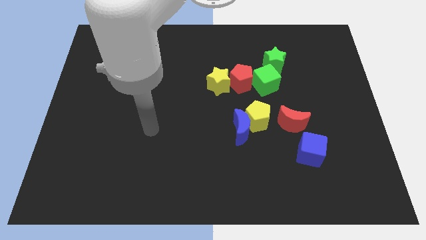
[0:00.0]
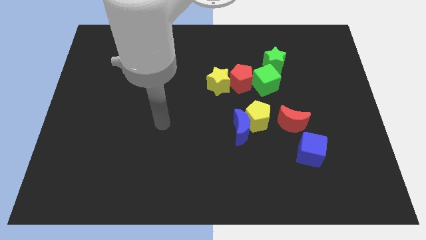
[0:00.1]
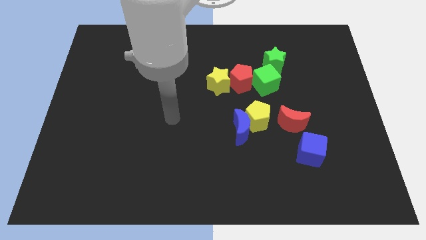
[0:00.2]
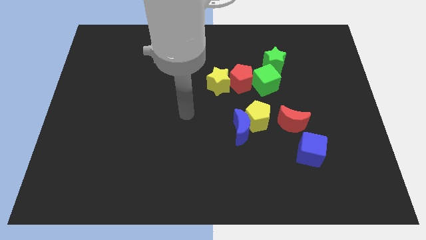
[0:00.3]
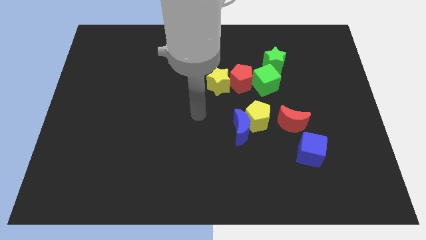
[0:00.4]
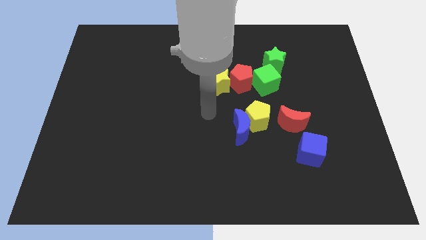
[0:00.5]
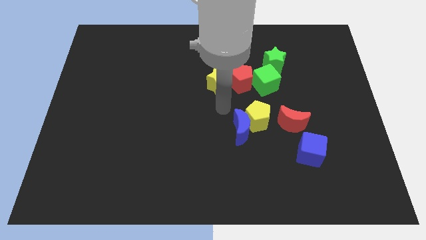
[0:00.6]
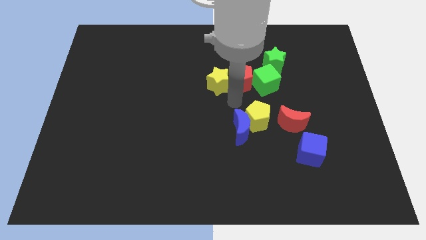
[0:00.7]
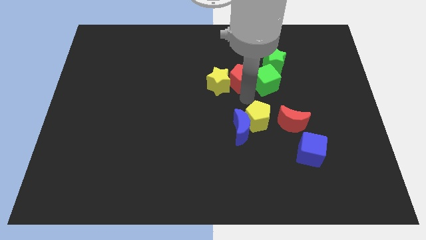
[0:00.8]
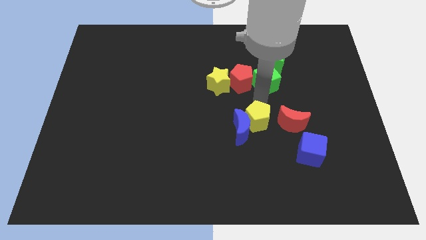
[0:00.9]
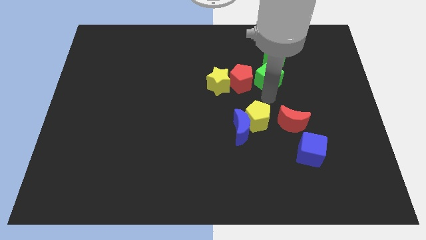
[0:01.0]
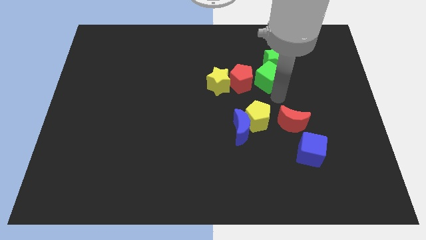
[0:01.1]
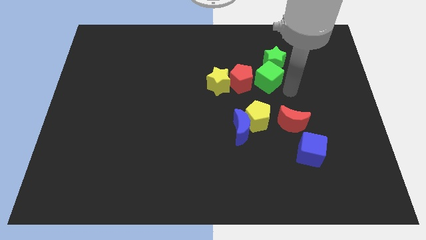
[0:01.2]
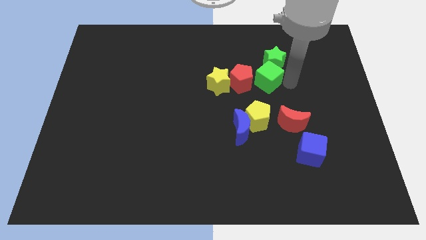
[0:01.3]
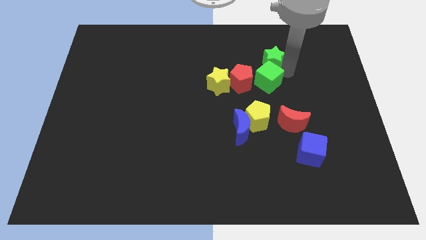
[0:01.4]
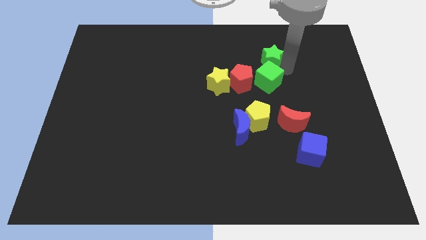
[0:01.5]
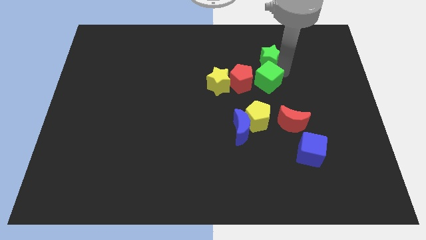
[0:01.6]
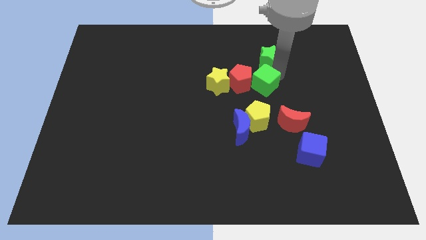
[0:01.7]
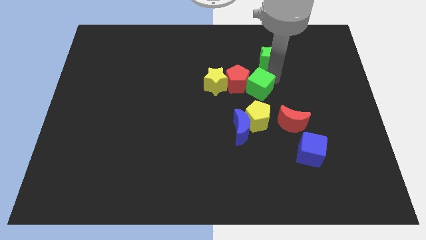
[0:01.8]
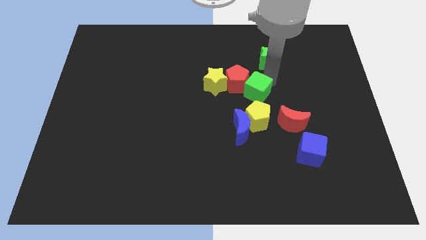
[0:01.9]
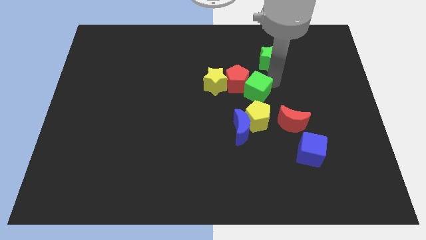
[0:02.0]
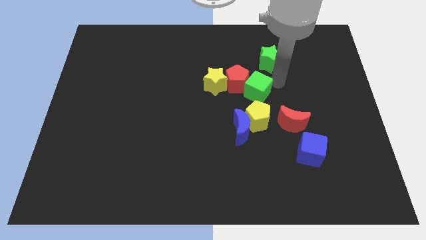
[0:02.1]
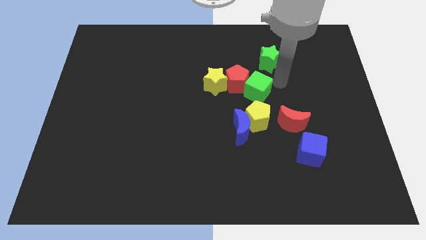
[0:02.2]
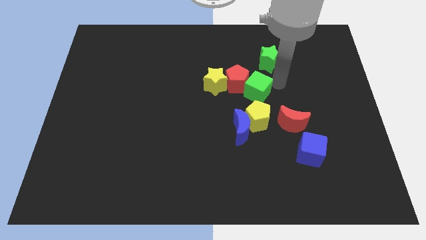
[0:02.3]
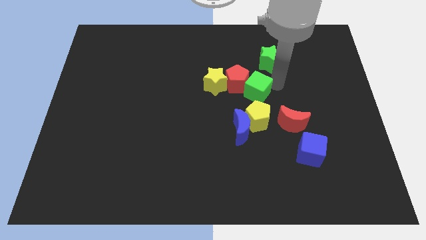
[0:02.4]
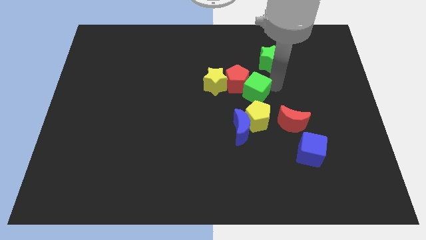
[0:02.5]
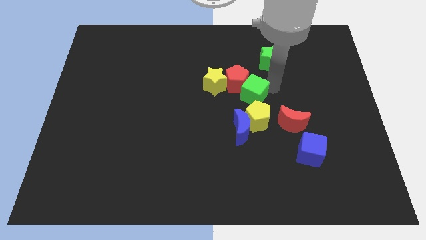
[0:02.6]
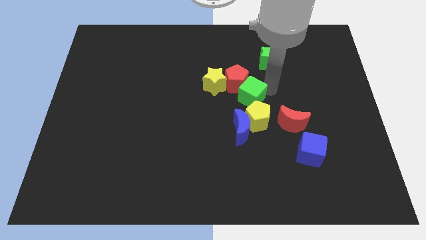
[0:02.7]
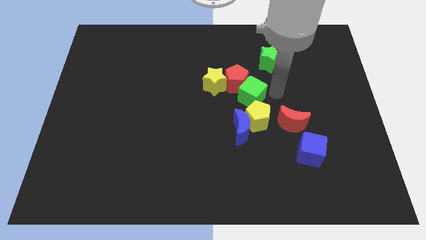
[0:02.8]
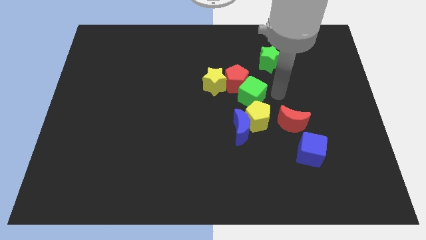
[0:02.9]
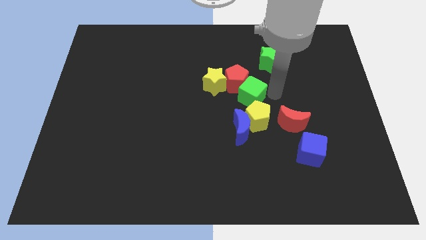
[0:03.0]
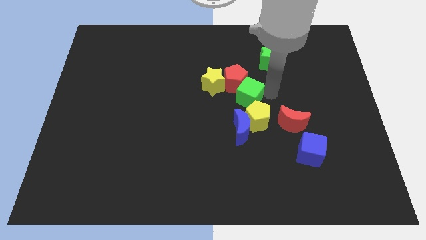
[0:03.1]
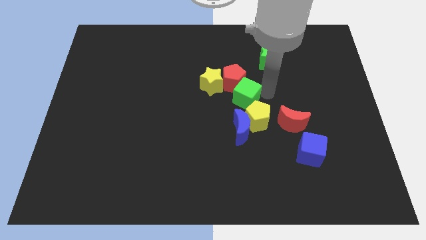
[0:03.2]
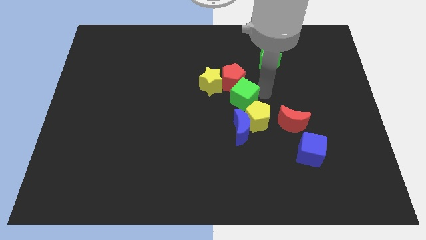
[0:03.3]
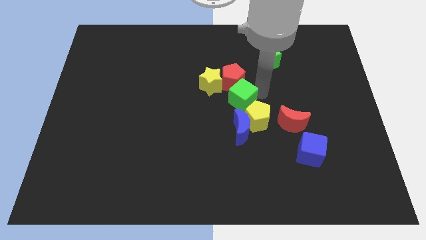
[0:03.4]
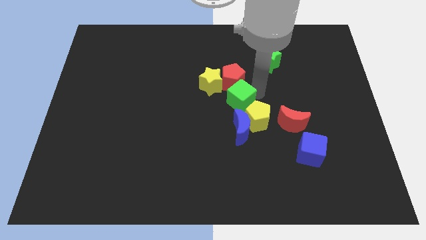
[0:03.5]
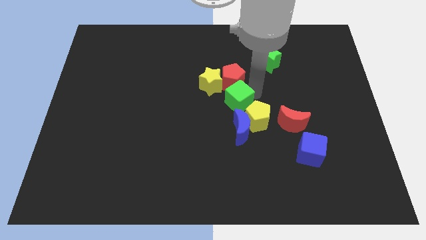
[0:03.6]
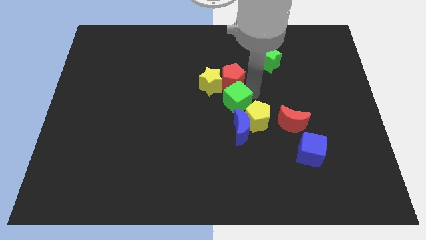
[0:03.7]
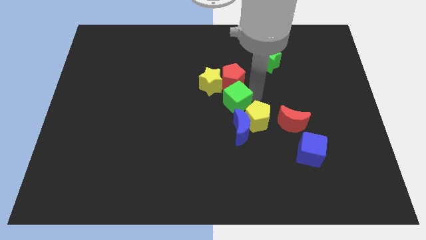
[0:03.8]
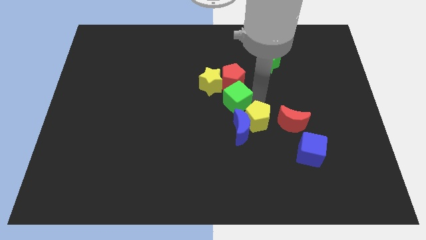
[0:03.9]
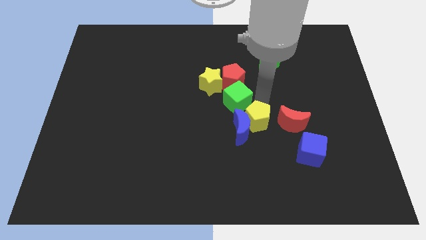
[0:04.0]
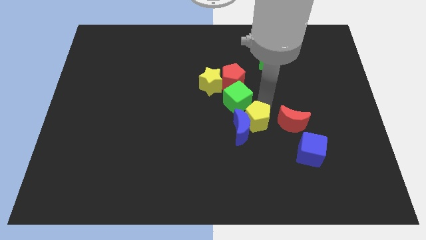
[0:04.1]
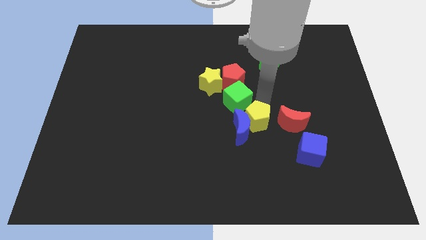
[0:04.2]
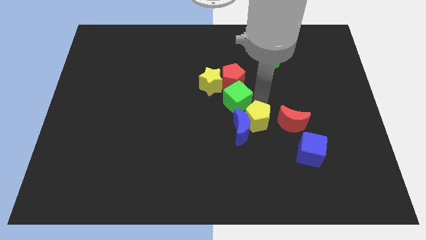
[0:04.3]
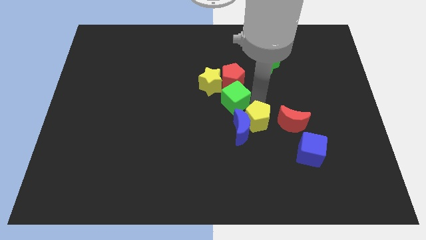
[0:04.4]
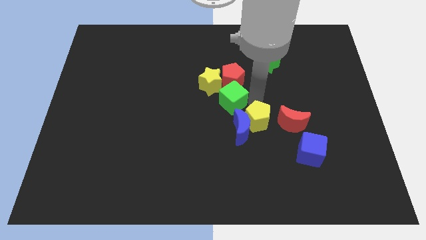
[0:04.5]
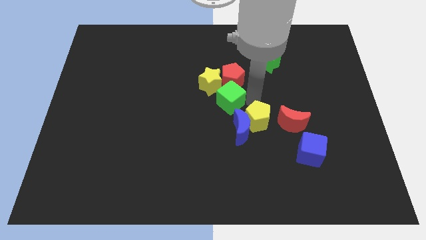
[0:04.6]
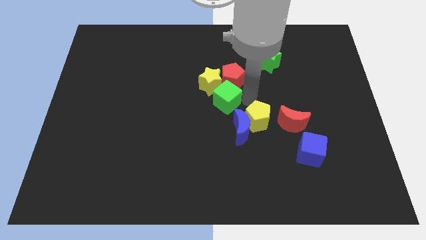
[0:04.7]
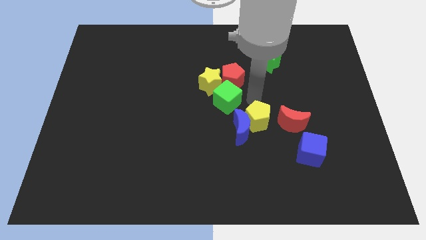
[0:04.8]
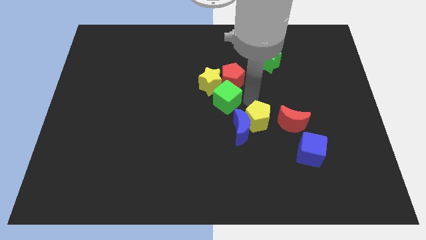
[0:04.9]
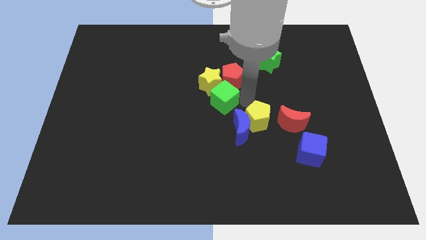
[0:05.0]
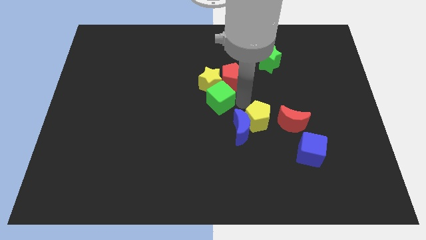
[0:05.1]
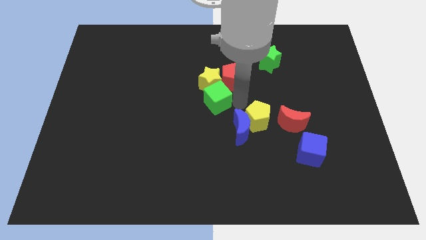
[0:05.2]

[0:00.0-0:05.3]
push the green cube to the bottom left of the yellow star

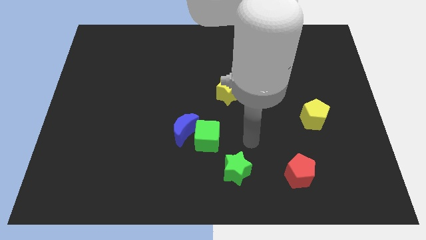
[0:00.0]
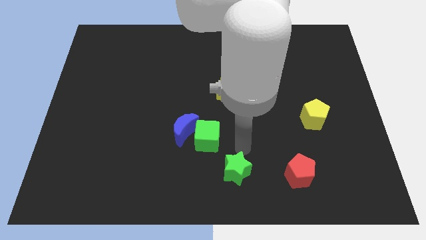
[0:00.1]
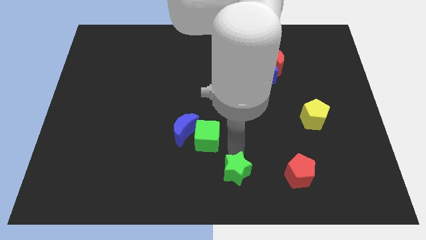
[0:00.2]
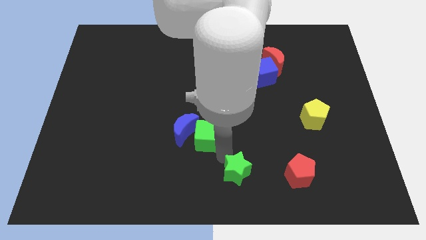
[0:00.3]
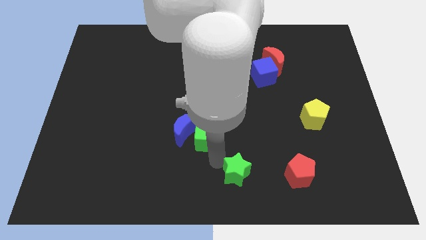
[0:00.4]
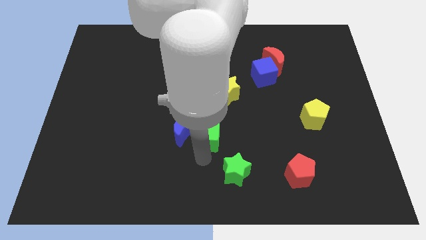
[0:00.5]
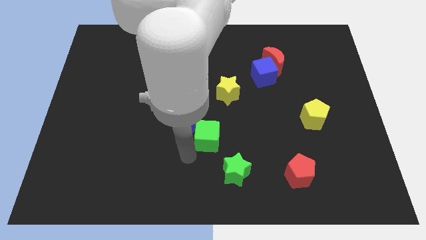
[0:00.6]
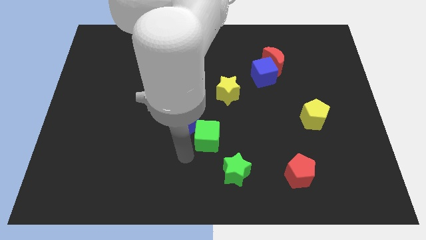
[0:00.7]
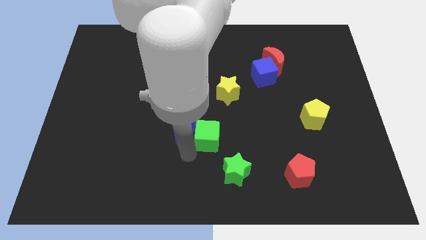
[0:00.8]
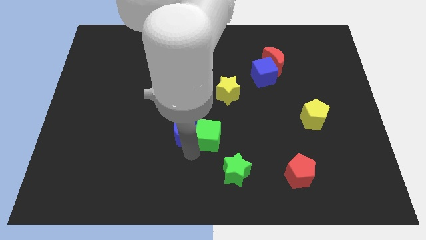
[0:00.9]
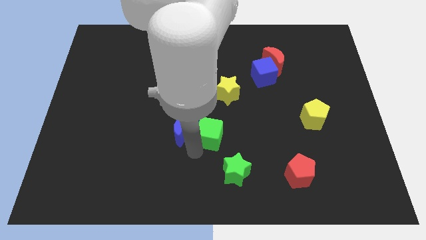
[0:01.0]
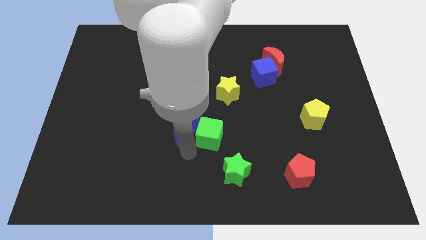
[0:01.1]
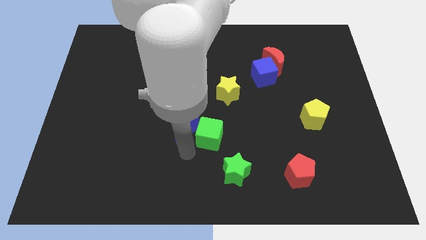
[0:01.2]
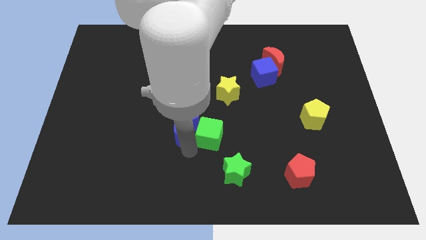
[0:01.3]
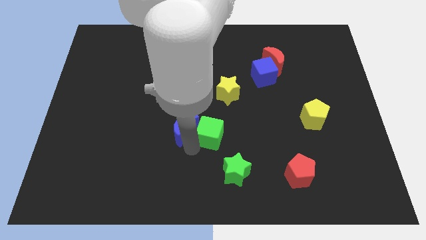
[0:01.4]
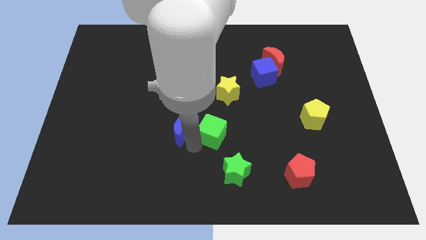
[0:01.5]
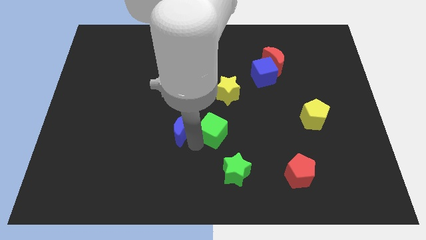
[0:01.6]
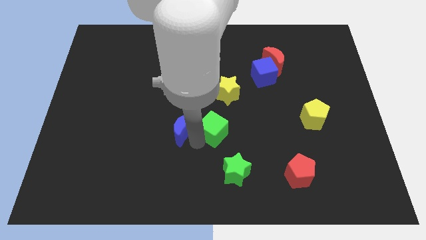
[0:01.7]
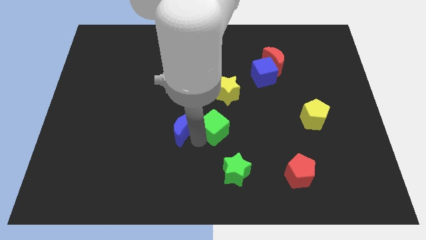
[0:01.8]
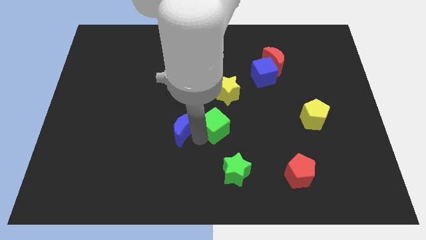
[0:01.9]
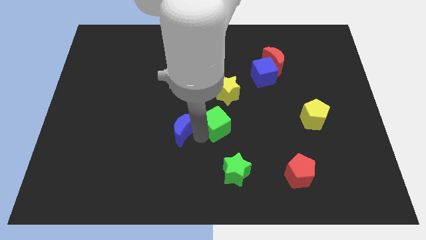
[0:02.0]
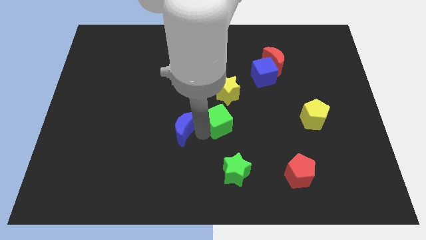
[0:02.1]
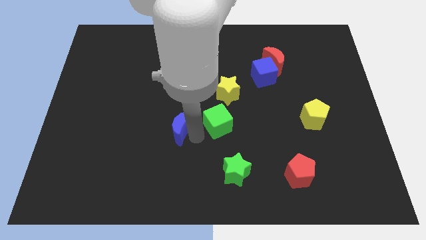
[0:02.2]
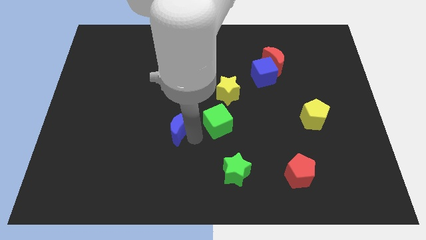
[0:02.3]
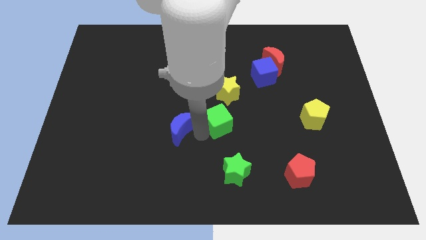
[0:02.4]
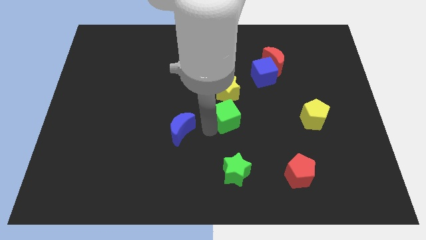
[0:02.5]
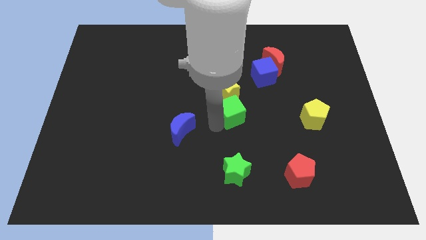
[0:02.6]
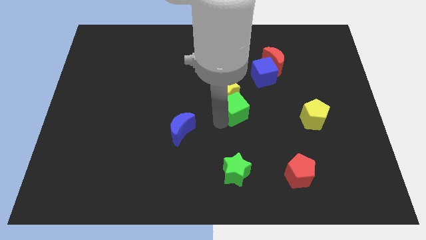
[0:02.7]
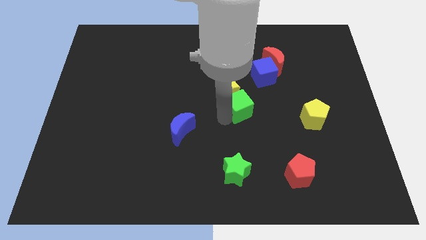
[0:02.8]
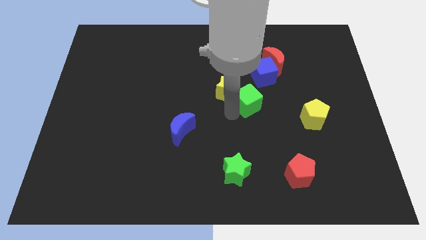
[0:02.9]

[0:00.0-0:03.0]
slide the green cube just right of the yellow star
